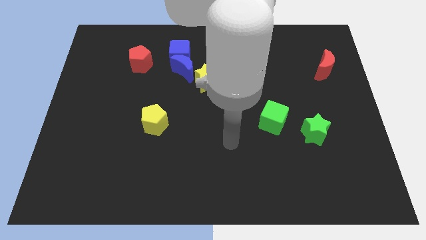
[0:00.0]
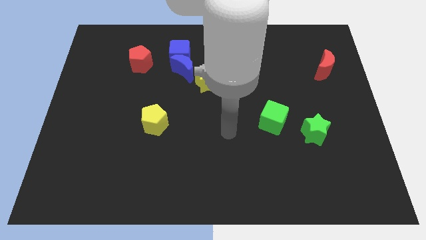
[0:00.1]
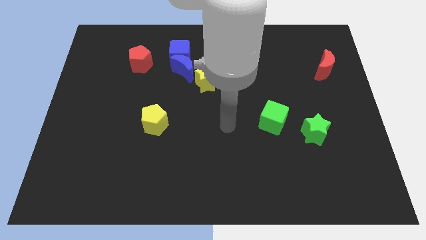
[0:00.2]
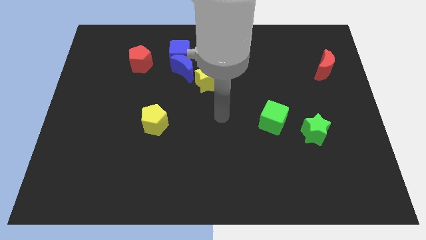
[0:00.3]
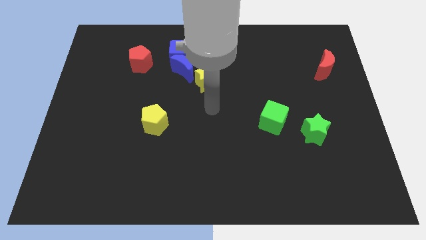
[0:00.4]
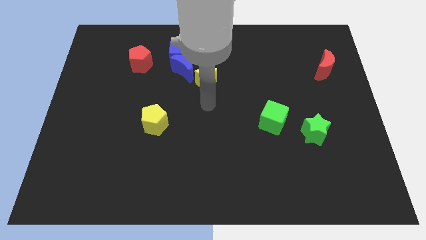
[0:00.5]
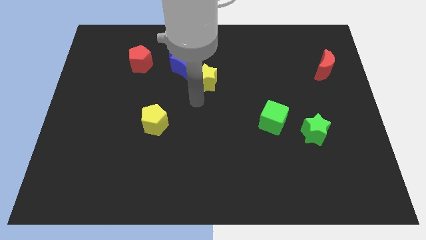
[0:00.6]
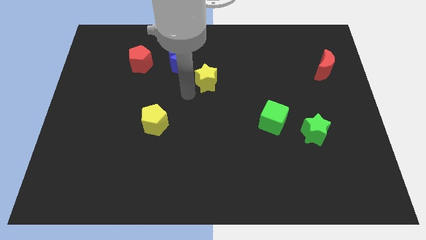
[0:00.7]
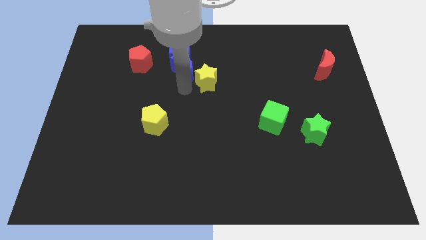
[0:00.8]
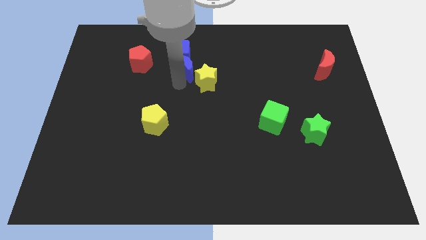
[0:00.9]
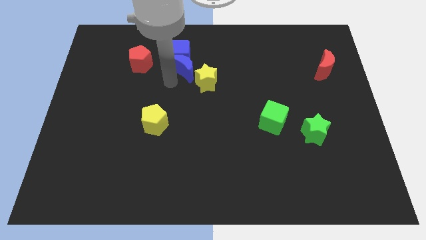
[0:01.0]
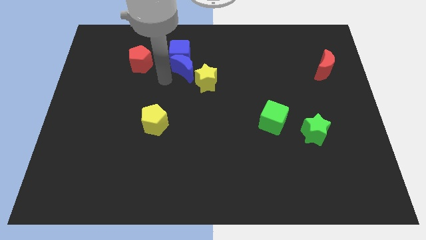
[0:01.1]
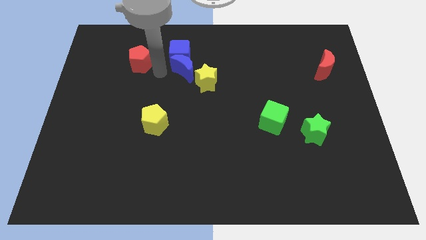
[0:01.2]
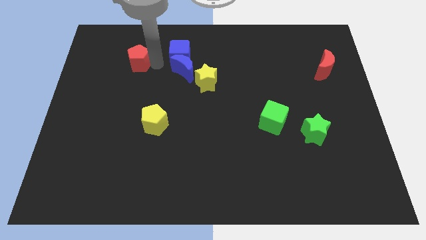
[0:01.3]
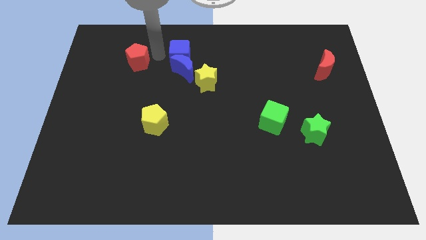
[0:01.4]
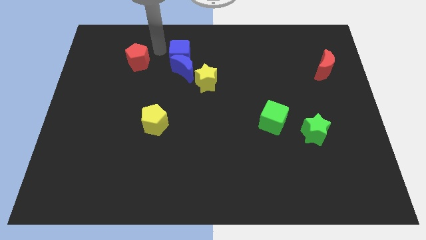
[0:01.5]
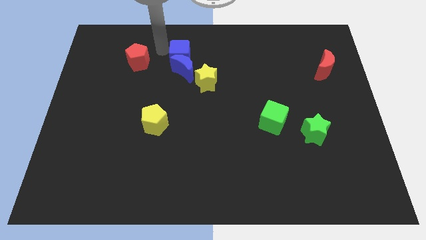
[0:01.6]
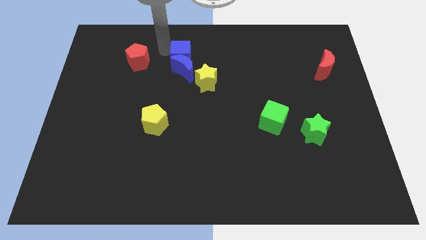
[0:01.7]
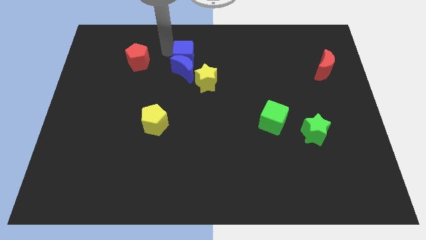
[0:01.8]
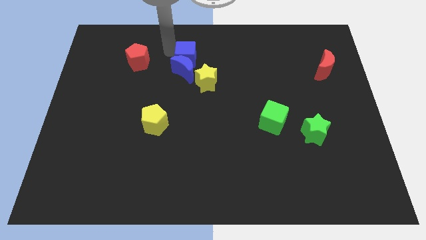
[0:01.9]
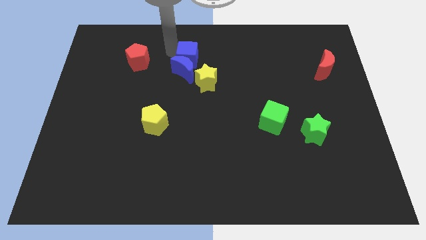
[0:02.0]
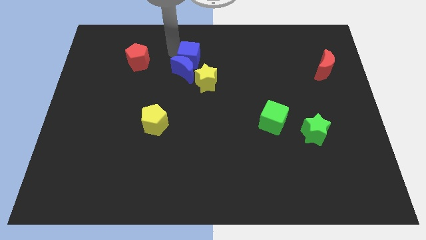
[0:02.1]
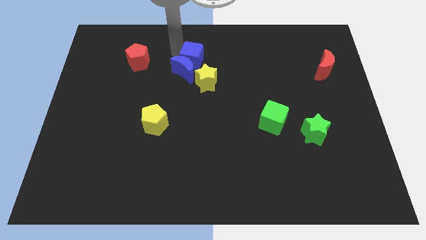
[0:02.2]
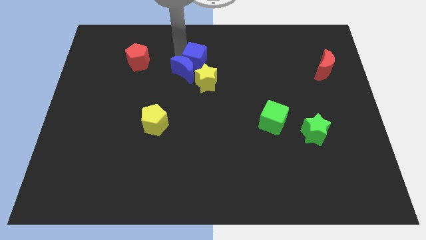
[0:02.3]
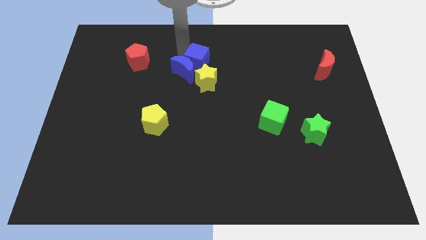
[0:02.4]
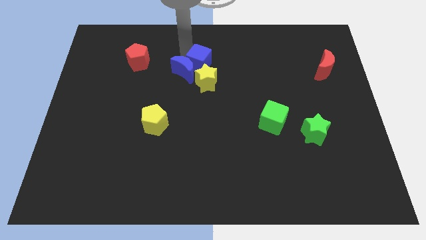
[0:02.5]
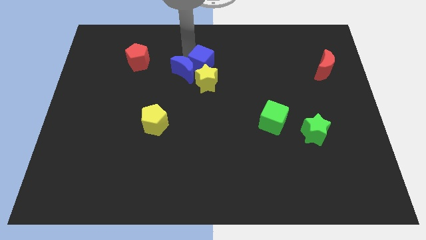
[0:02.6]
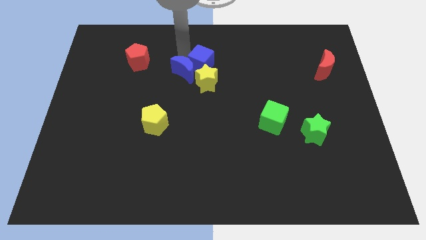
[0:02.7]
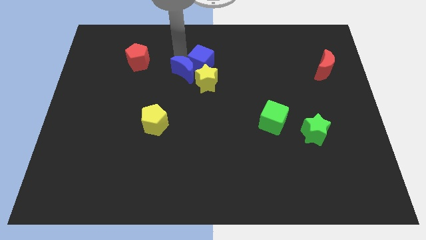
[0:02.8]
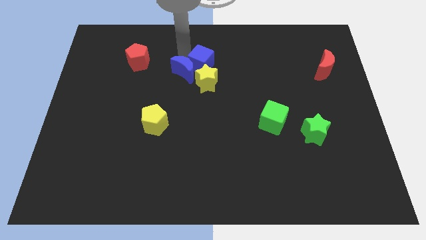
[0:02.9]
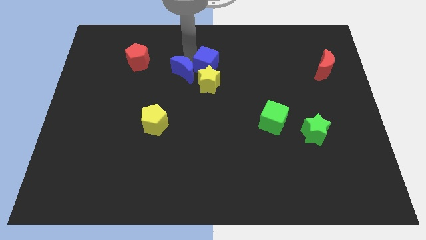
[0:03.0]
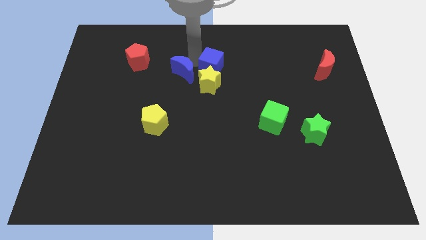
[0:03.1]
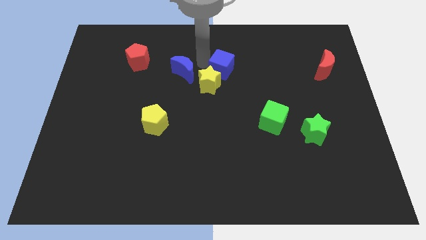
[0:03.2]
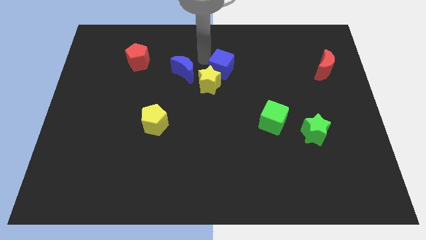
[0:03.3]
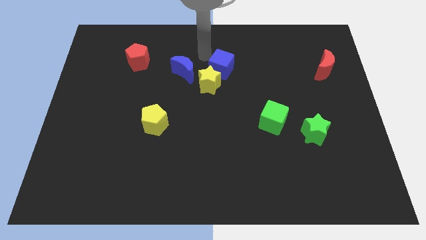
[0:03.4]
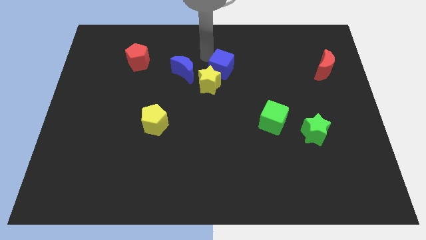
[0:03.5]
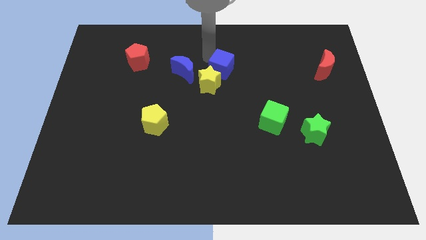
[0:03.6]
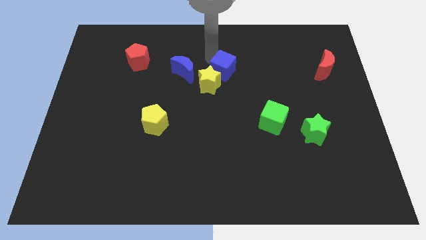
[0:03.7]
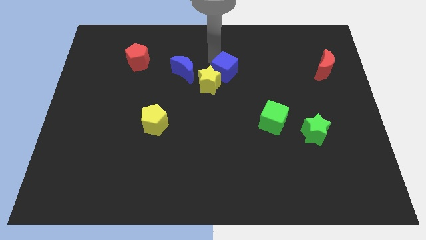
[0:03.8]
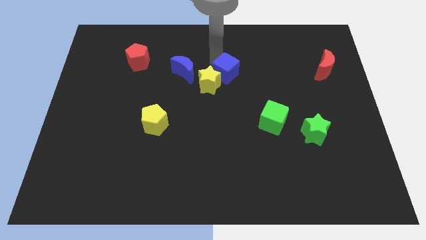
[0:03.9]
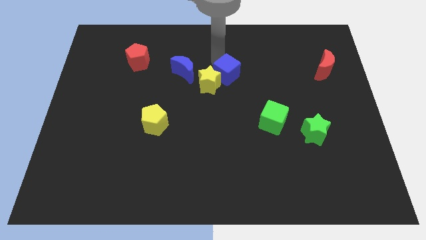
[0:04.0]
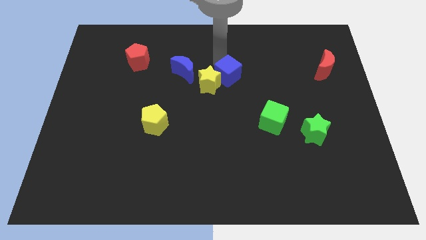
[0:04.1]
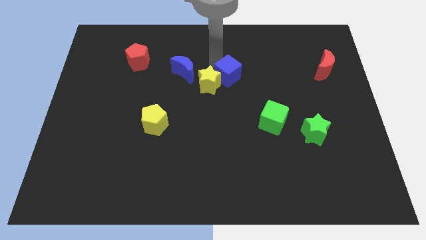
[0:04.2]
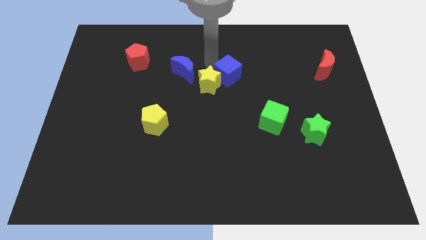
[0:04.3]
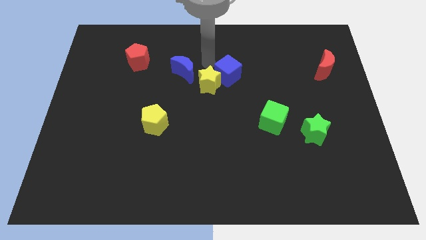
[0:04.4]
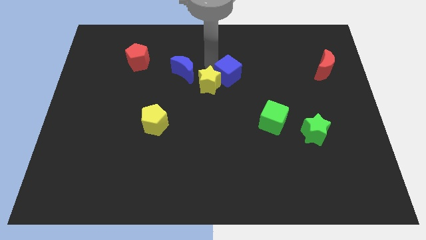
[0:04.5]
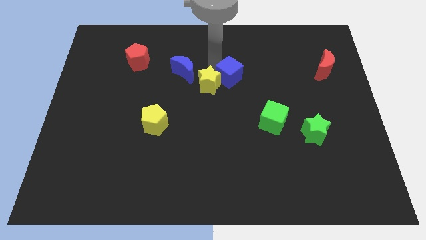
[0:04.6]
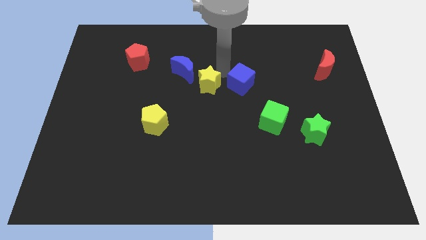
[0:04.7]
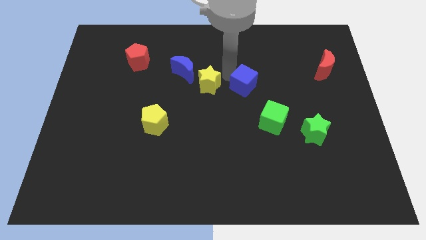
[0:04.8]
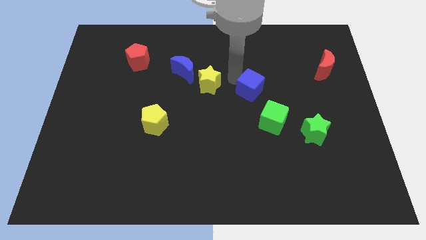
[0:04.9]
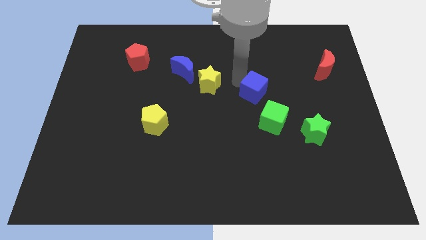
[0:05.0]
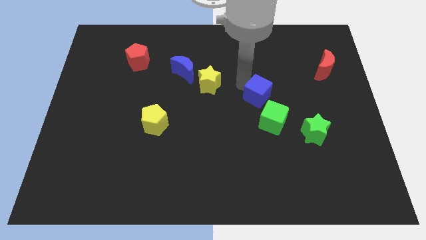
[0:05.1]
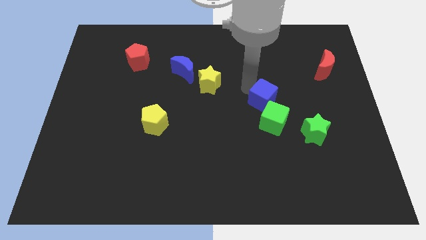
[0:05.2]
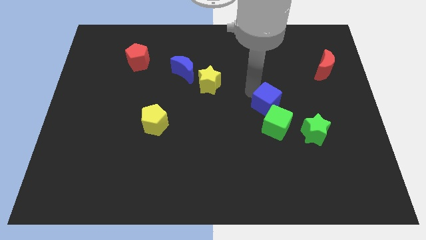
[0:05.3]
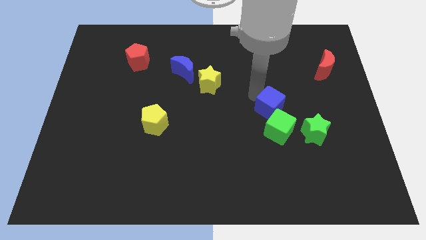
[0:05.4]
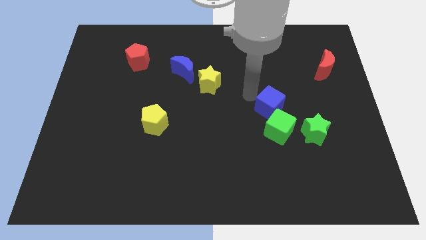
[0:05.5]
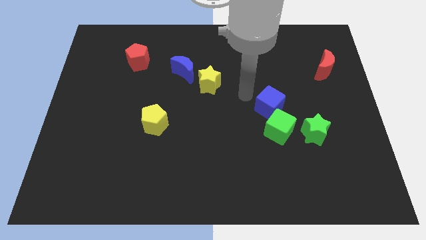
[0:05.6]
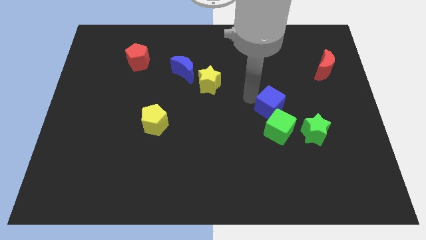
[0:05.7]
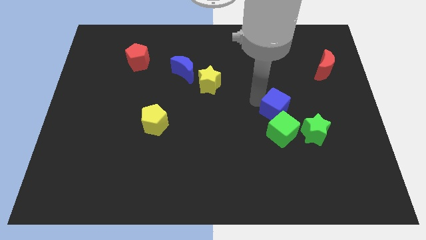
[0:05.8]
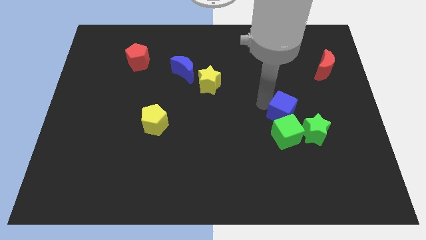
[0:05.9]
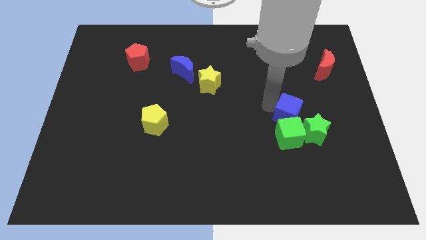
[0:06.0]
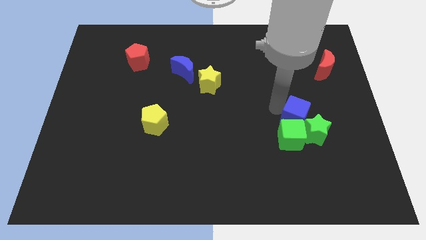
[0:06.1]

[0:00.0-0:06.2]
slide the blue cube close to the green star

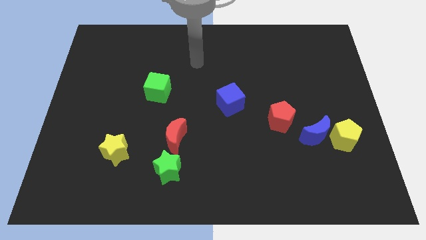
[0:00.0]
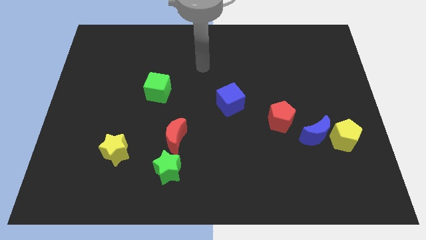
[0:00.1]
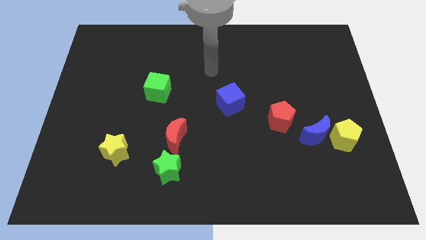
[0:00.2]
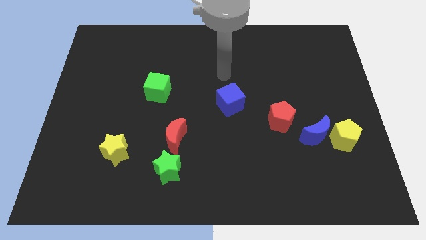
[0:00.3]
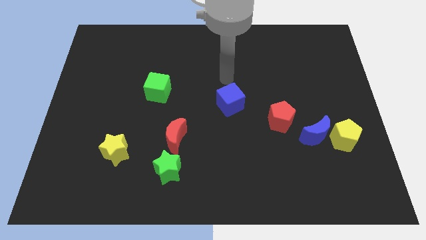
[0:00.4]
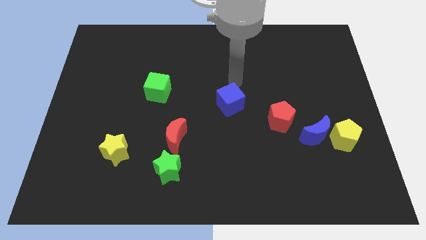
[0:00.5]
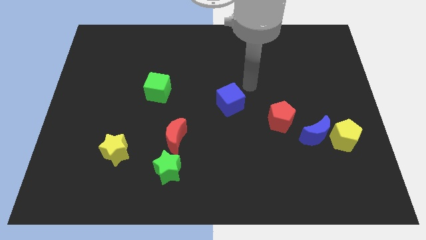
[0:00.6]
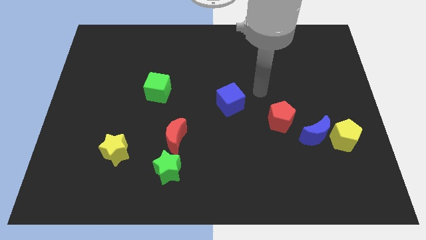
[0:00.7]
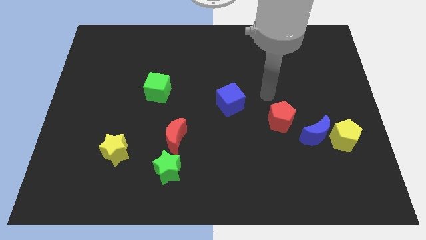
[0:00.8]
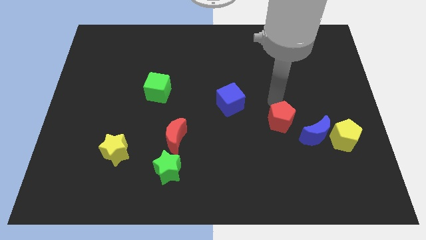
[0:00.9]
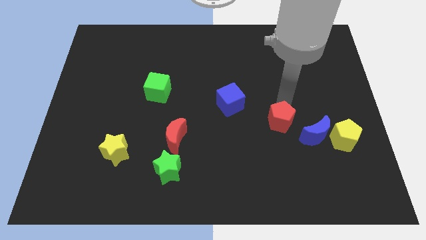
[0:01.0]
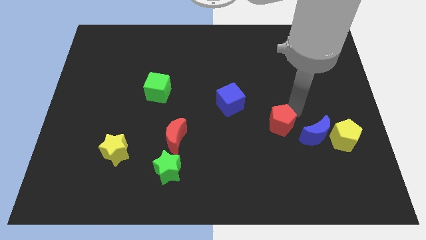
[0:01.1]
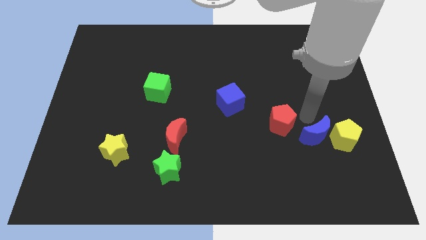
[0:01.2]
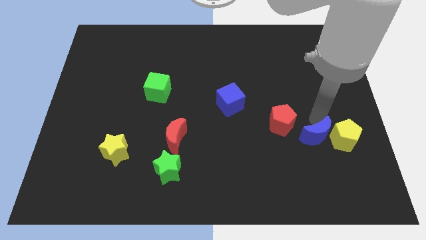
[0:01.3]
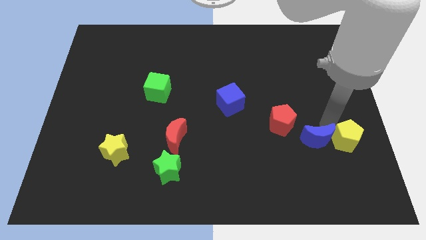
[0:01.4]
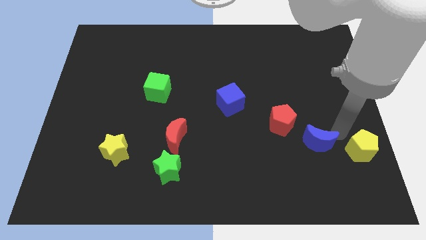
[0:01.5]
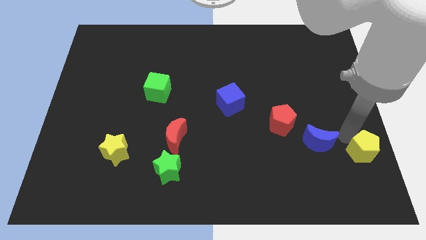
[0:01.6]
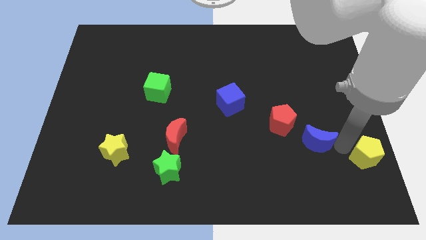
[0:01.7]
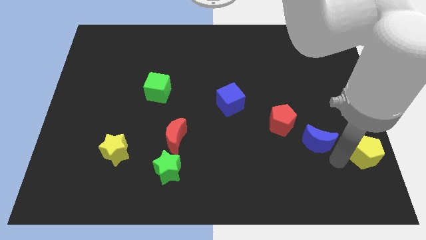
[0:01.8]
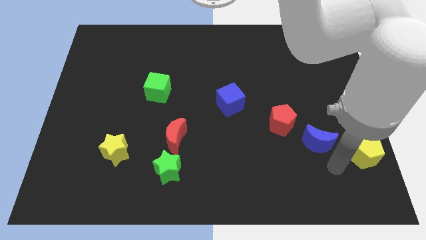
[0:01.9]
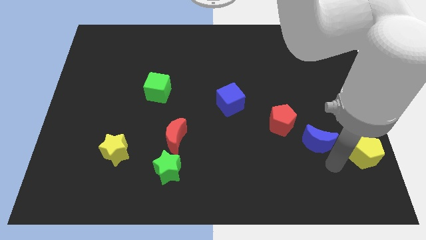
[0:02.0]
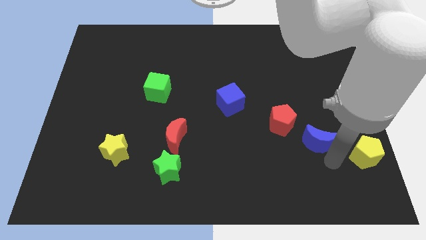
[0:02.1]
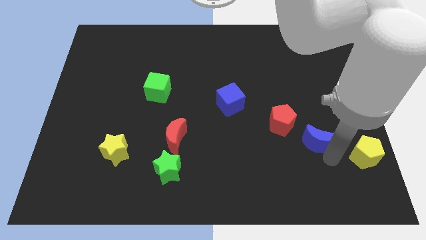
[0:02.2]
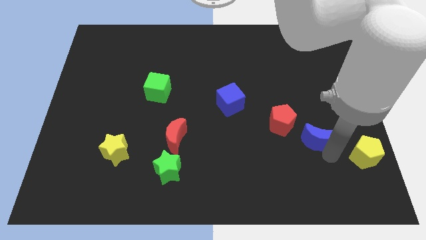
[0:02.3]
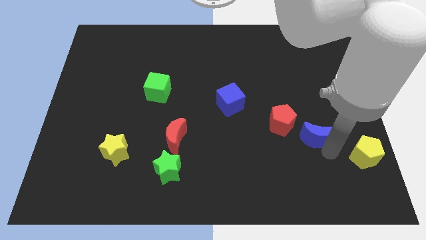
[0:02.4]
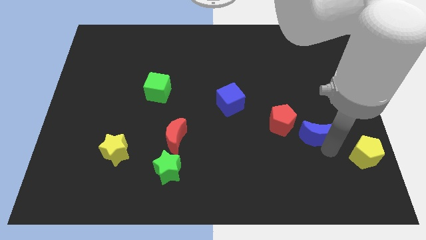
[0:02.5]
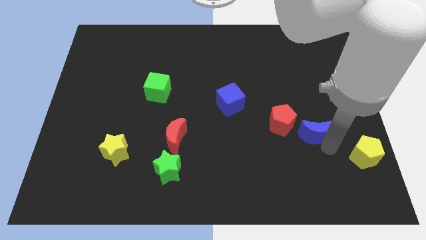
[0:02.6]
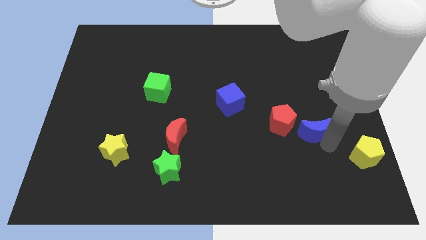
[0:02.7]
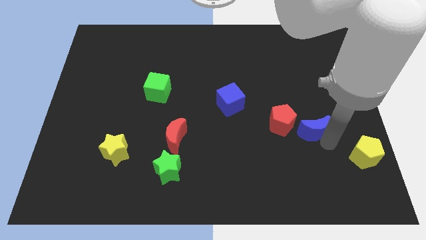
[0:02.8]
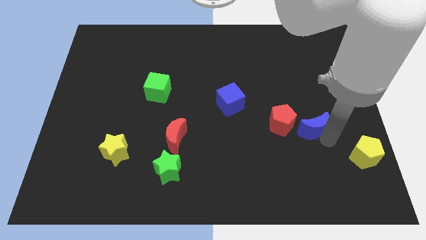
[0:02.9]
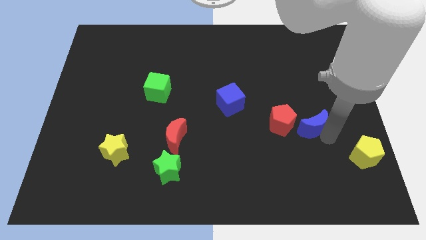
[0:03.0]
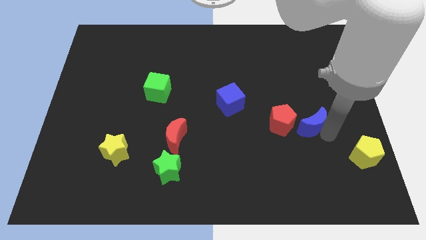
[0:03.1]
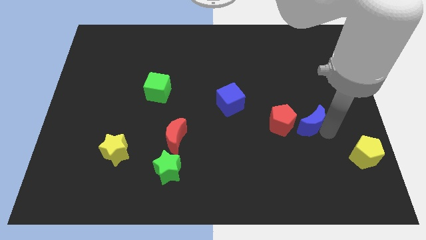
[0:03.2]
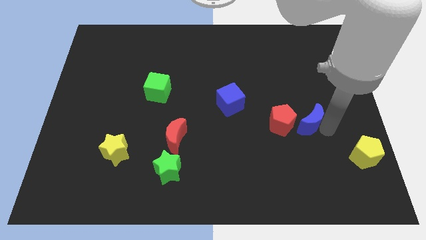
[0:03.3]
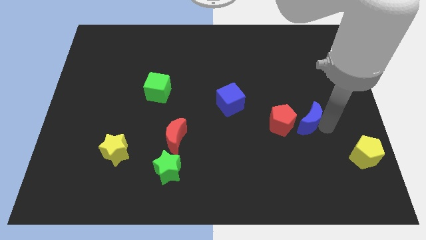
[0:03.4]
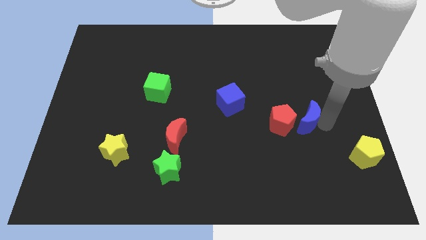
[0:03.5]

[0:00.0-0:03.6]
move the blue moon next to the red pentagon
